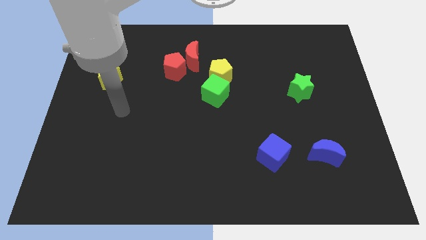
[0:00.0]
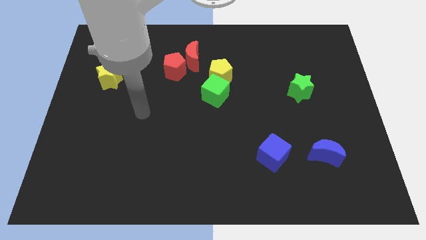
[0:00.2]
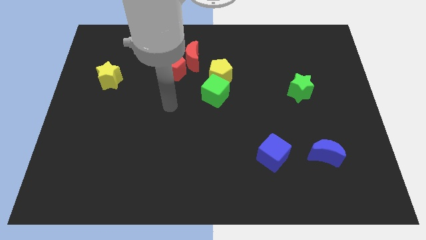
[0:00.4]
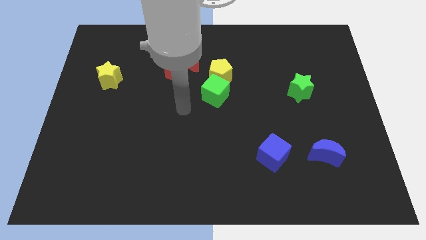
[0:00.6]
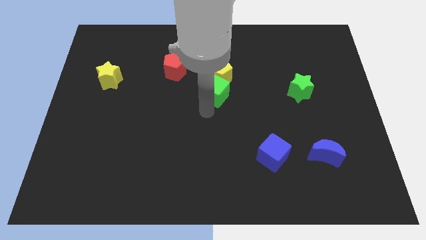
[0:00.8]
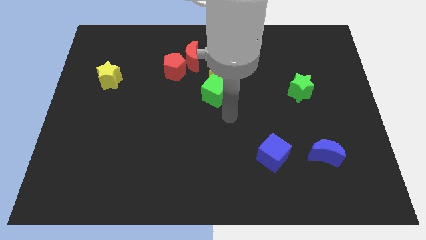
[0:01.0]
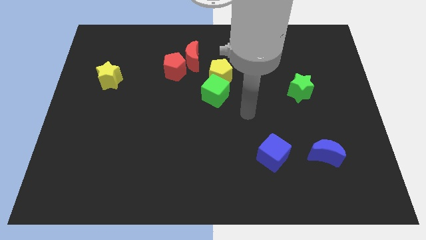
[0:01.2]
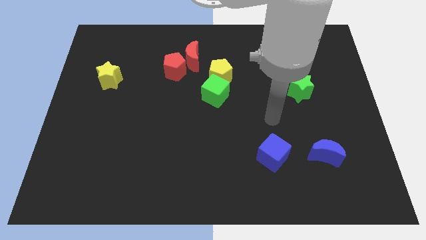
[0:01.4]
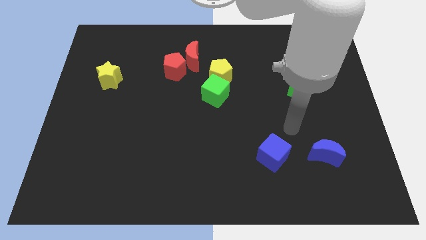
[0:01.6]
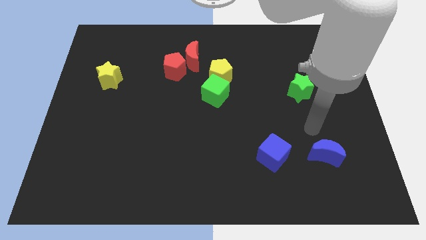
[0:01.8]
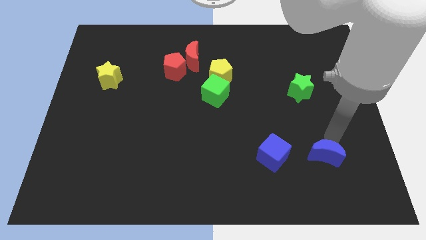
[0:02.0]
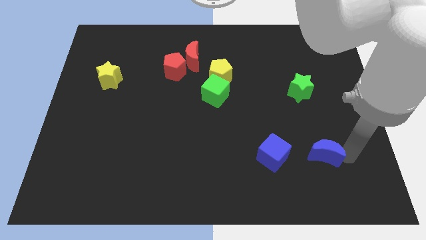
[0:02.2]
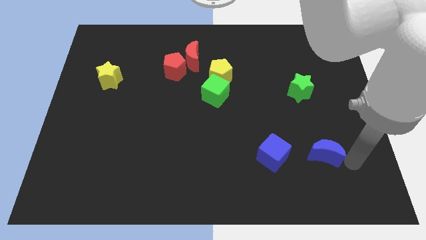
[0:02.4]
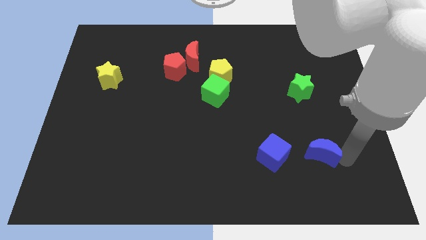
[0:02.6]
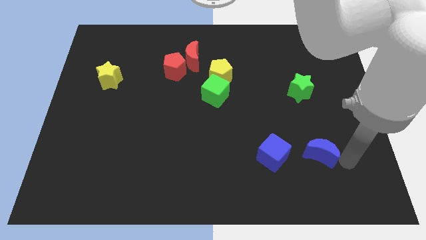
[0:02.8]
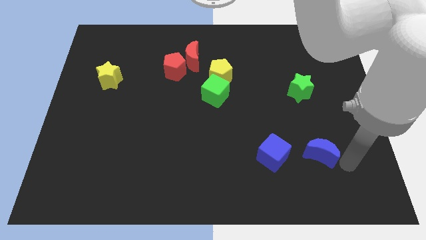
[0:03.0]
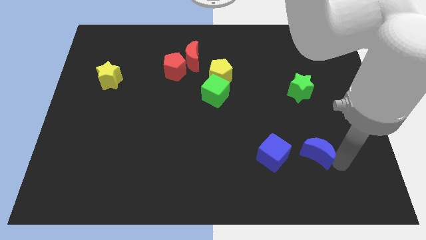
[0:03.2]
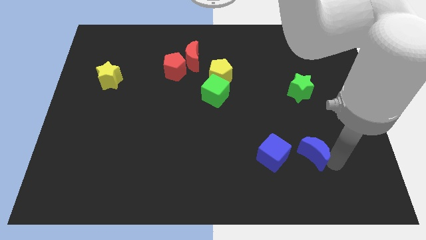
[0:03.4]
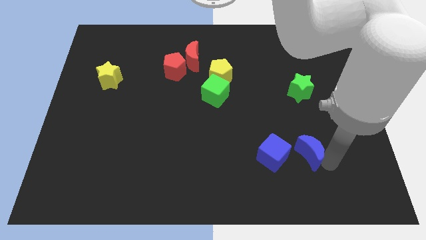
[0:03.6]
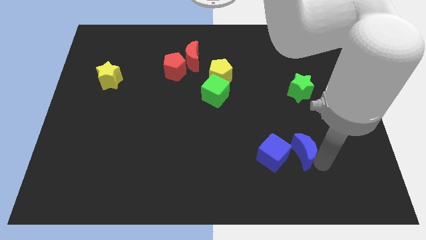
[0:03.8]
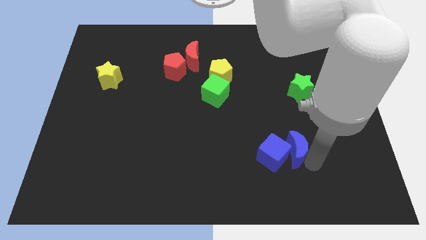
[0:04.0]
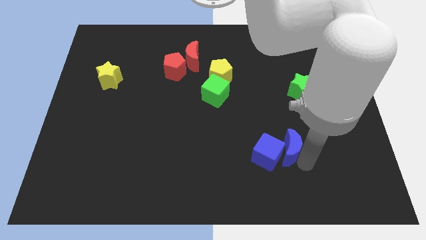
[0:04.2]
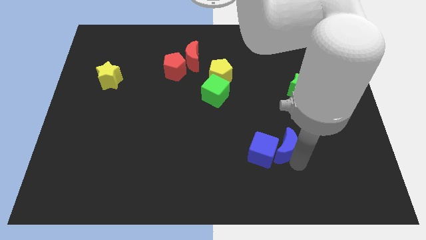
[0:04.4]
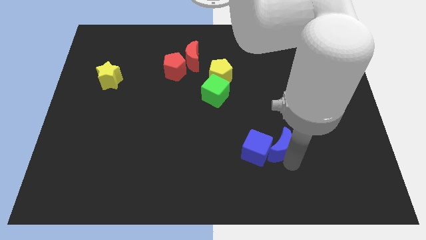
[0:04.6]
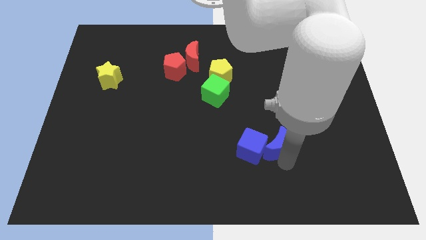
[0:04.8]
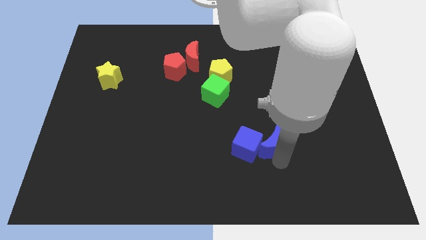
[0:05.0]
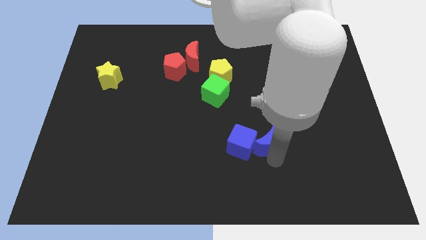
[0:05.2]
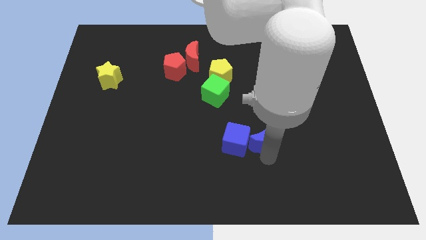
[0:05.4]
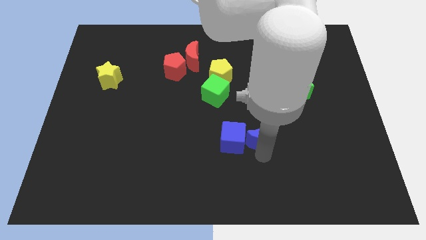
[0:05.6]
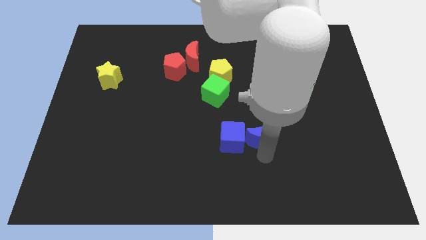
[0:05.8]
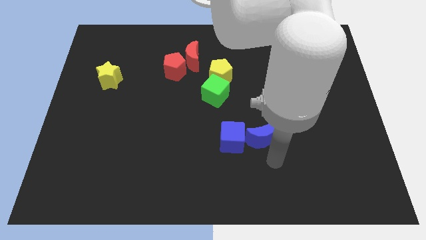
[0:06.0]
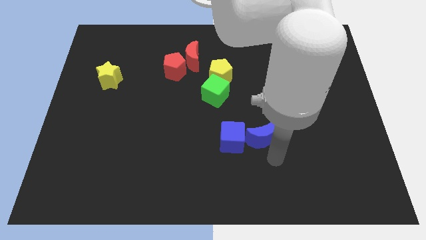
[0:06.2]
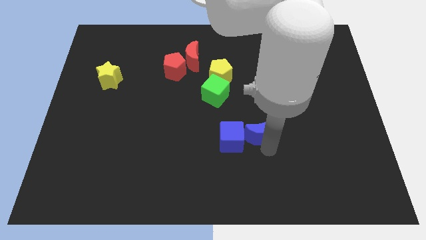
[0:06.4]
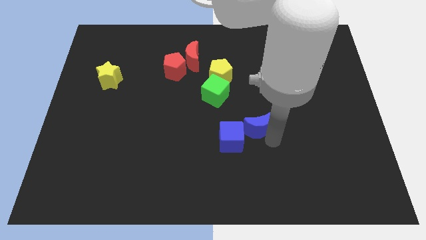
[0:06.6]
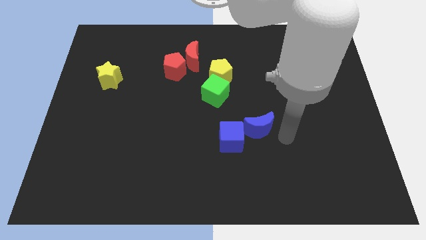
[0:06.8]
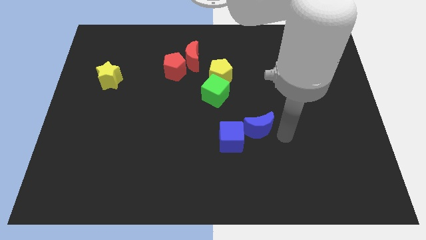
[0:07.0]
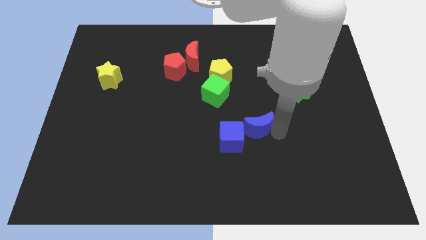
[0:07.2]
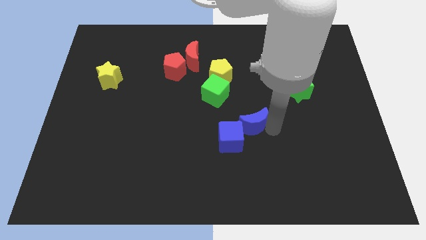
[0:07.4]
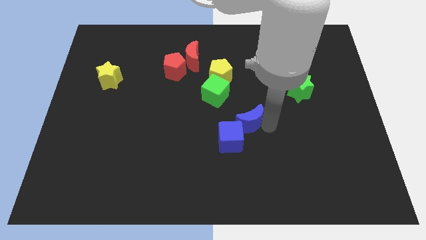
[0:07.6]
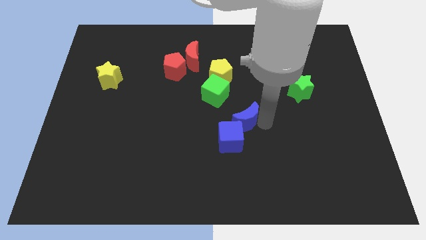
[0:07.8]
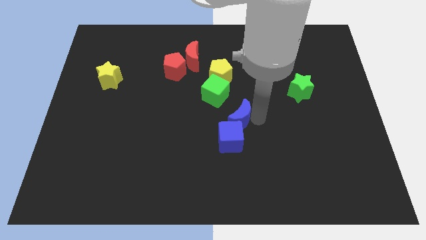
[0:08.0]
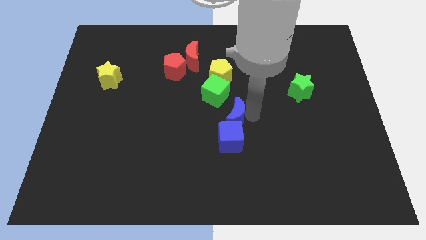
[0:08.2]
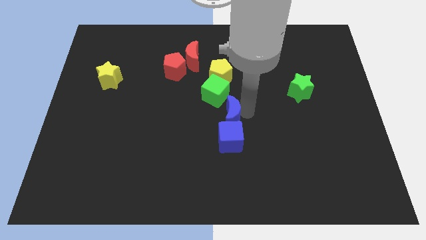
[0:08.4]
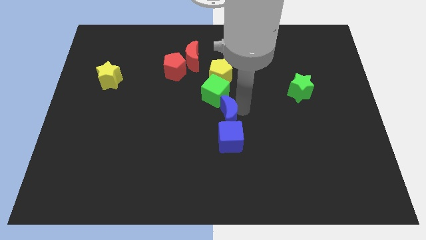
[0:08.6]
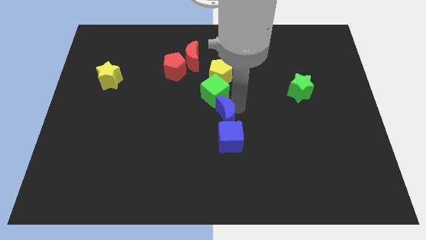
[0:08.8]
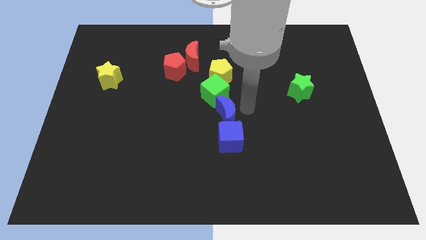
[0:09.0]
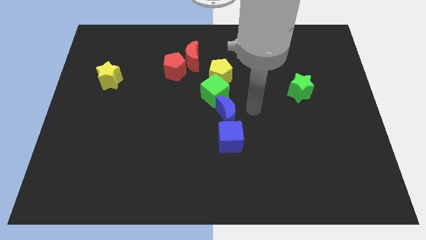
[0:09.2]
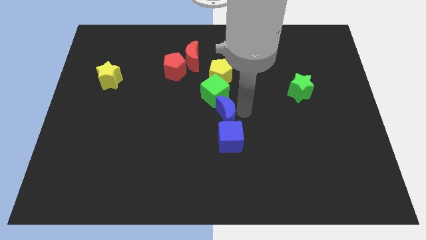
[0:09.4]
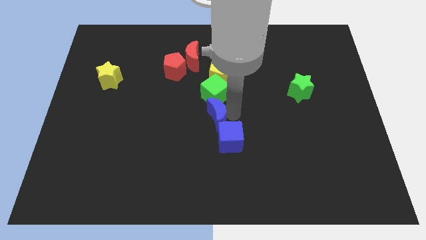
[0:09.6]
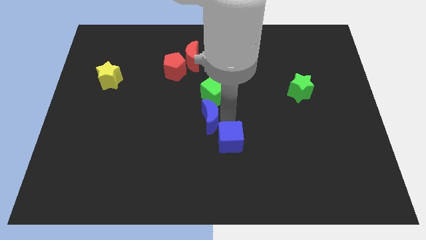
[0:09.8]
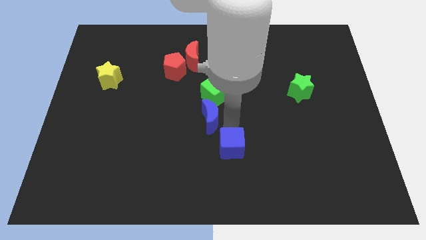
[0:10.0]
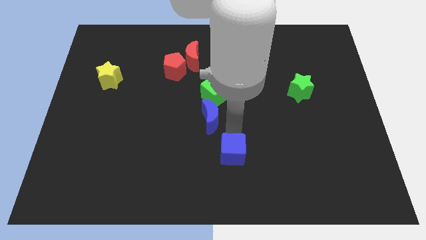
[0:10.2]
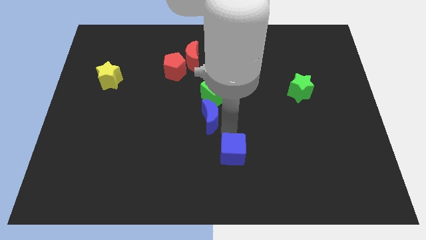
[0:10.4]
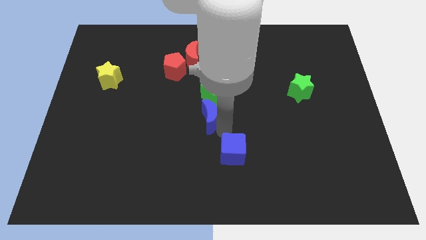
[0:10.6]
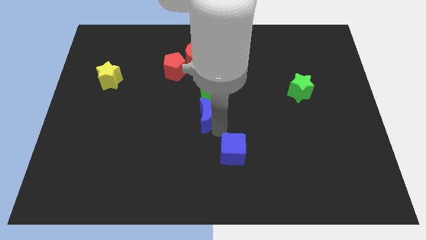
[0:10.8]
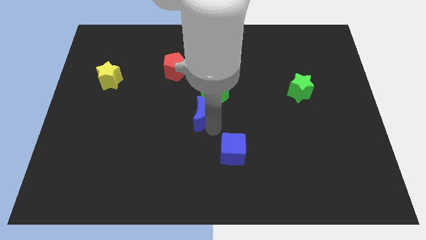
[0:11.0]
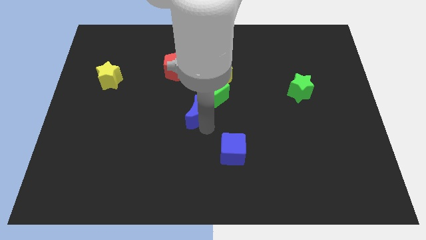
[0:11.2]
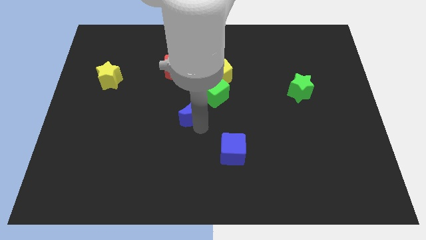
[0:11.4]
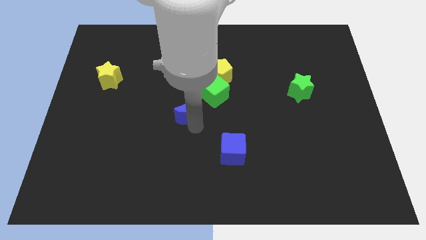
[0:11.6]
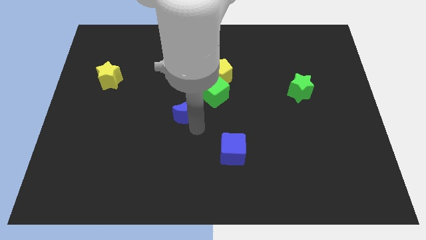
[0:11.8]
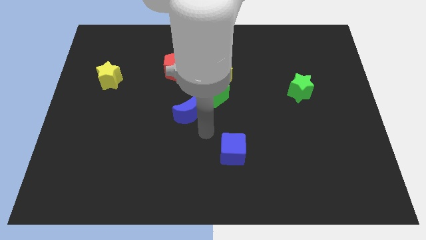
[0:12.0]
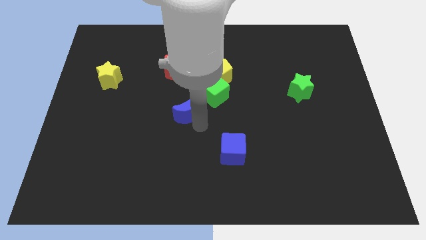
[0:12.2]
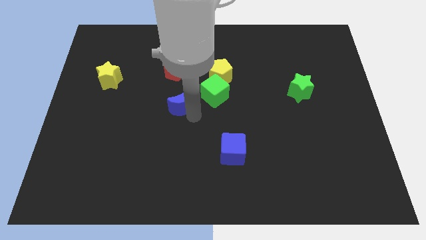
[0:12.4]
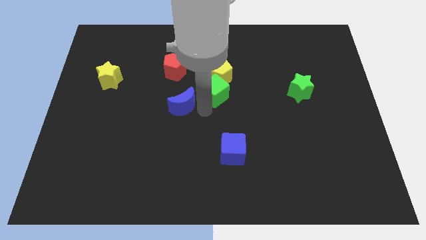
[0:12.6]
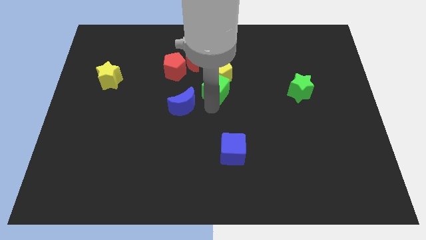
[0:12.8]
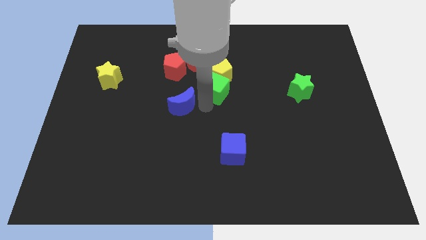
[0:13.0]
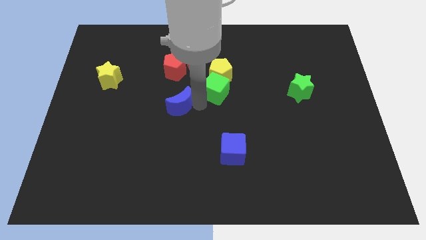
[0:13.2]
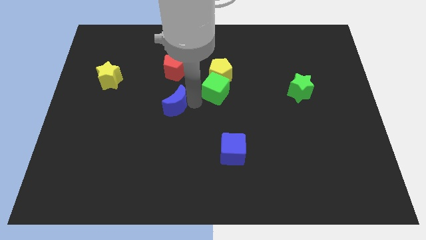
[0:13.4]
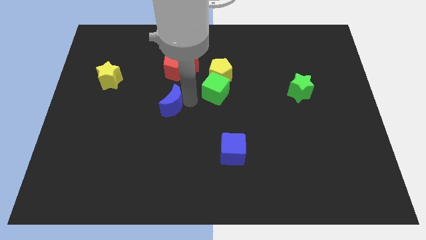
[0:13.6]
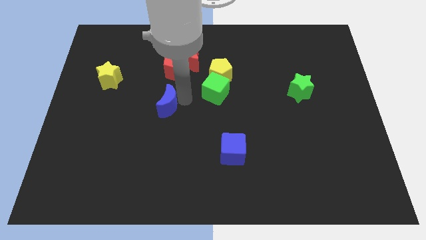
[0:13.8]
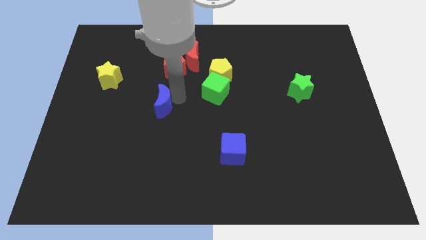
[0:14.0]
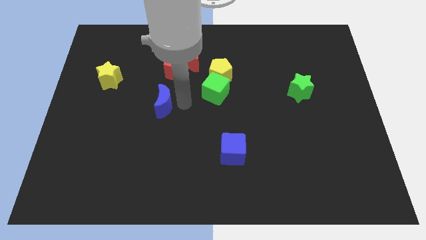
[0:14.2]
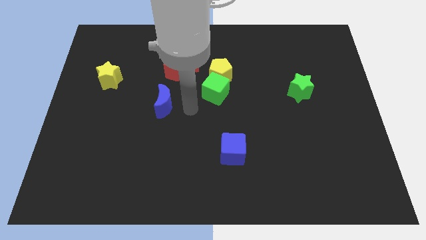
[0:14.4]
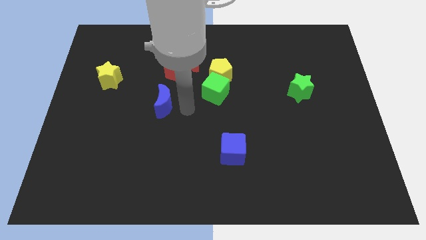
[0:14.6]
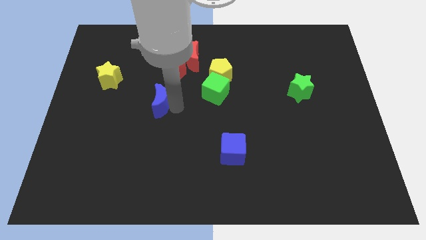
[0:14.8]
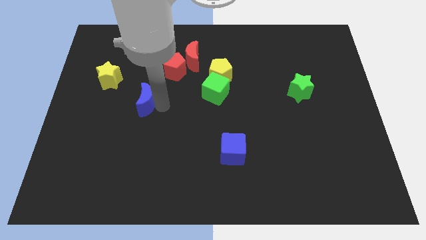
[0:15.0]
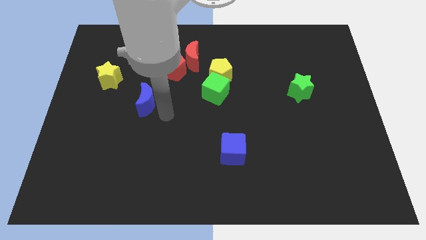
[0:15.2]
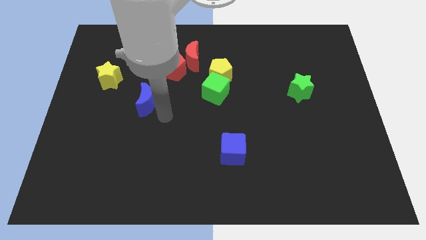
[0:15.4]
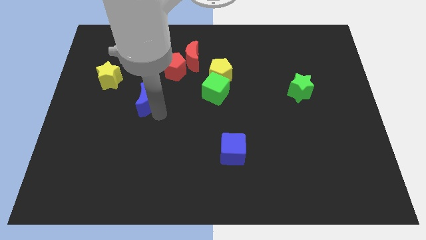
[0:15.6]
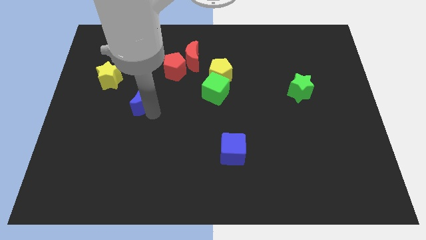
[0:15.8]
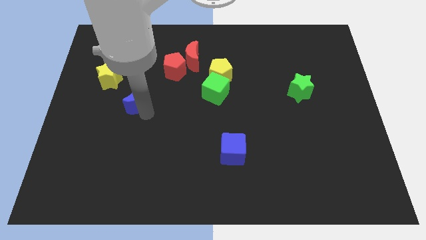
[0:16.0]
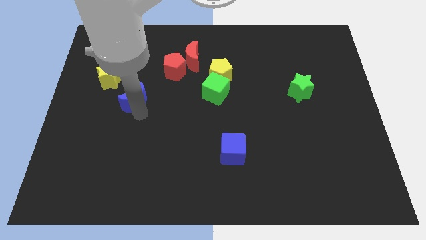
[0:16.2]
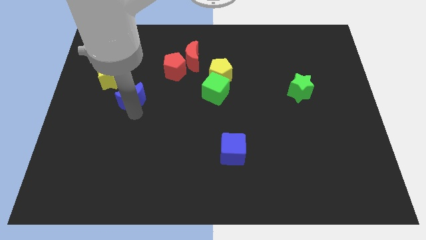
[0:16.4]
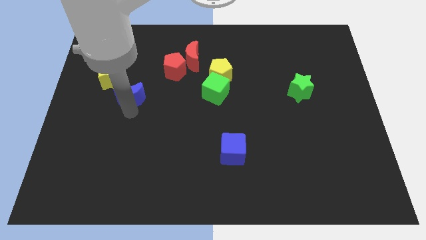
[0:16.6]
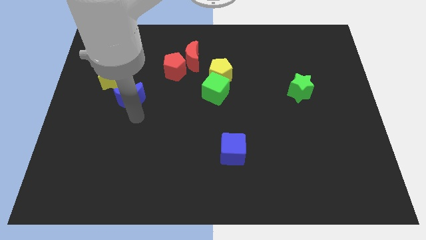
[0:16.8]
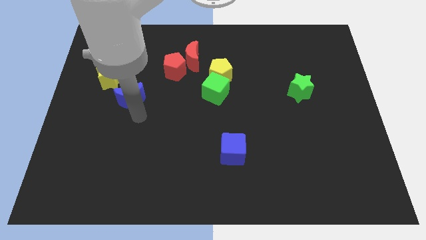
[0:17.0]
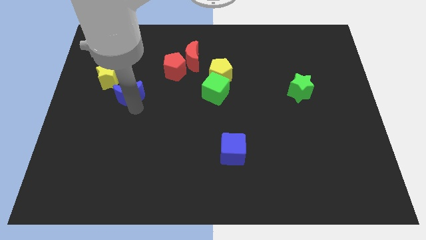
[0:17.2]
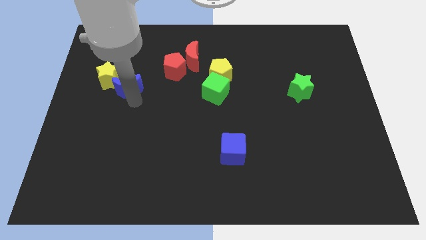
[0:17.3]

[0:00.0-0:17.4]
slide the blue moon to the yellow star
